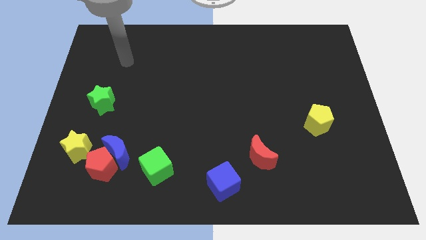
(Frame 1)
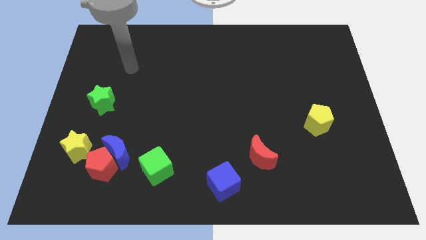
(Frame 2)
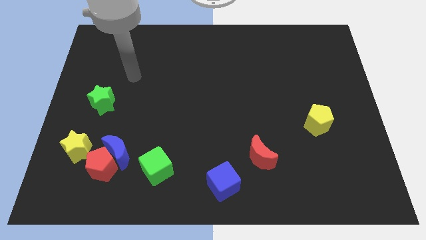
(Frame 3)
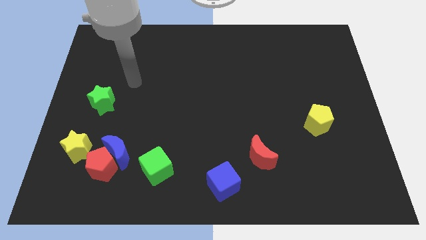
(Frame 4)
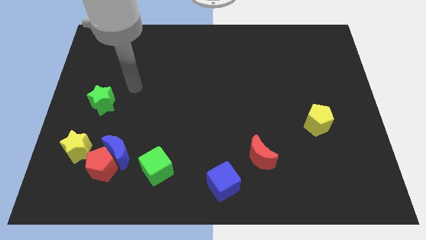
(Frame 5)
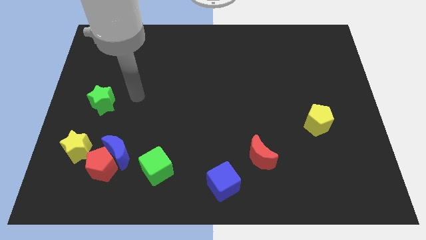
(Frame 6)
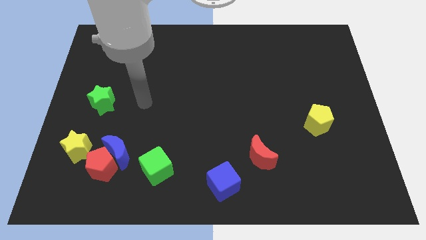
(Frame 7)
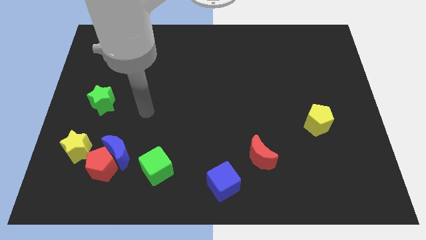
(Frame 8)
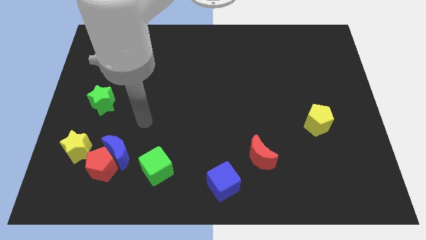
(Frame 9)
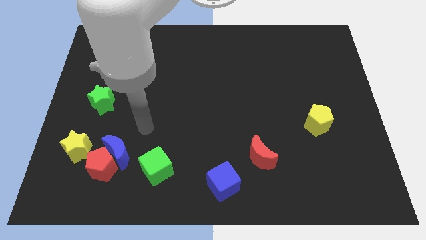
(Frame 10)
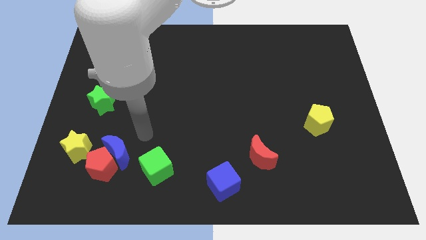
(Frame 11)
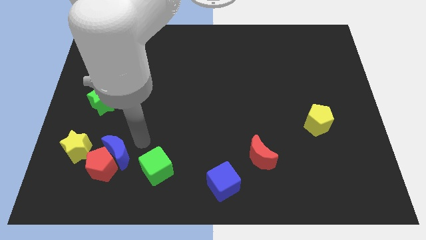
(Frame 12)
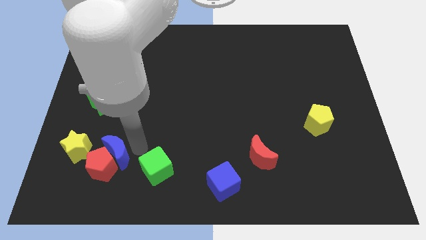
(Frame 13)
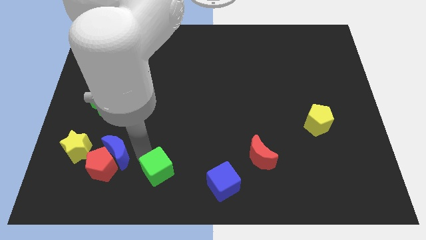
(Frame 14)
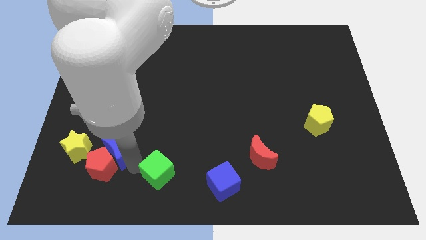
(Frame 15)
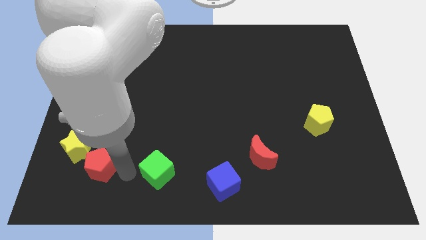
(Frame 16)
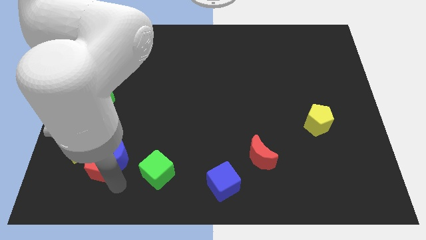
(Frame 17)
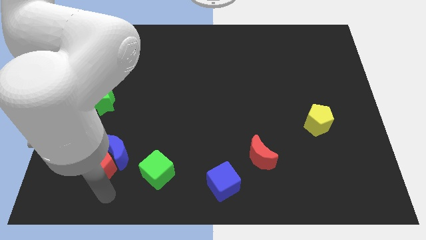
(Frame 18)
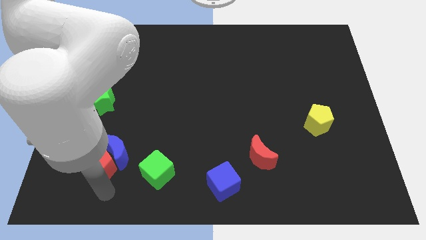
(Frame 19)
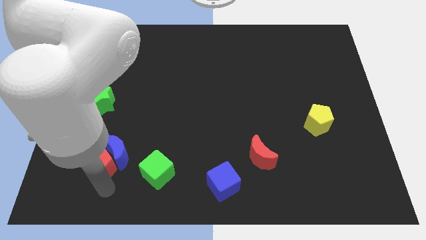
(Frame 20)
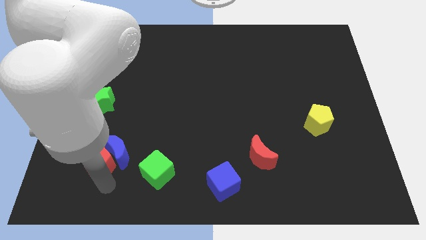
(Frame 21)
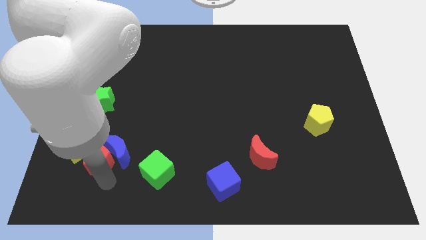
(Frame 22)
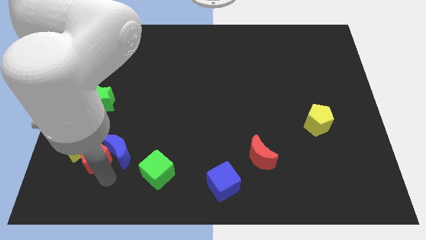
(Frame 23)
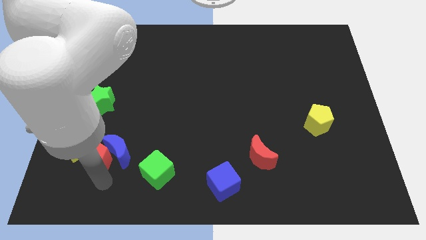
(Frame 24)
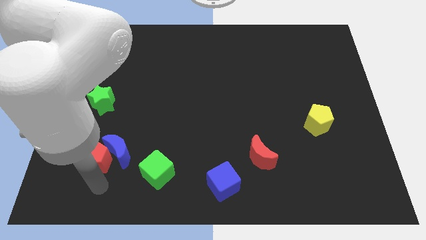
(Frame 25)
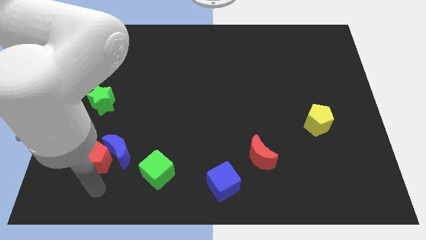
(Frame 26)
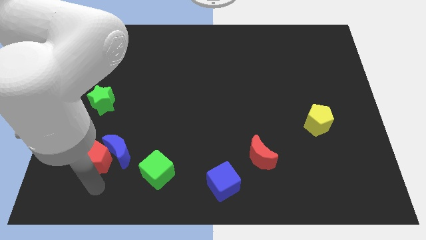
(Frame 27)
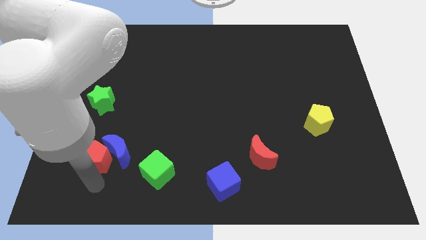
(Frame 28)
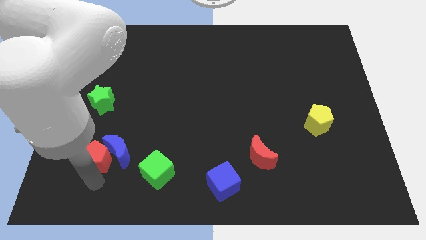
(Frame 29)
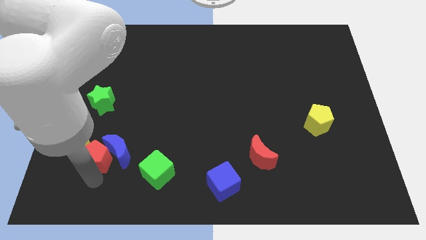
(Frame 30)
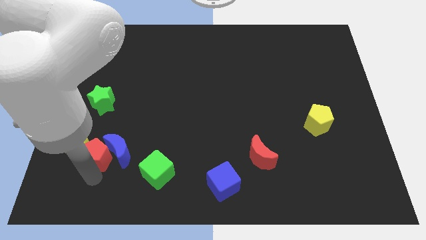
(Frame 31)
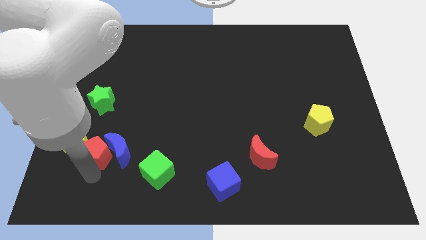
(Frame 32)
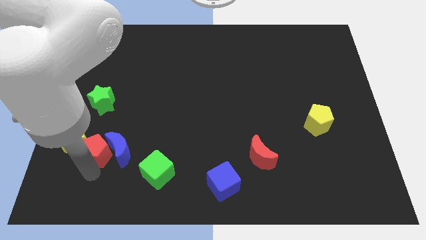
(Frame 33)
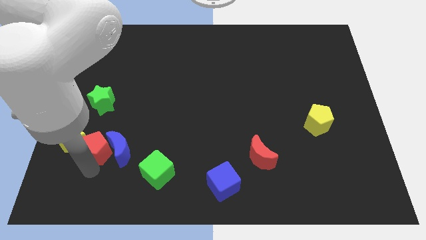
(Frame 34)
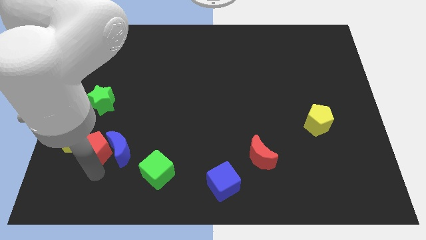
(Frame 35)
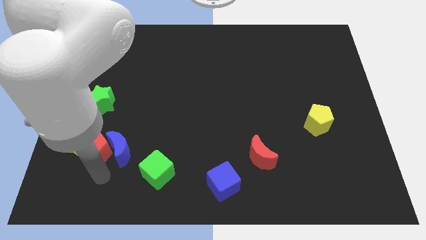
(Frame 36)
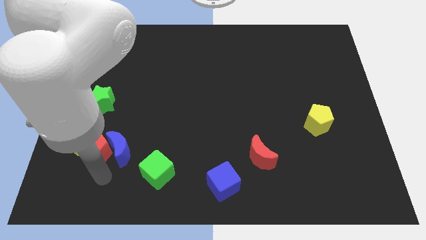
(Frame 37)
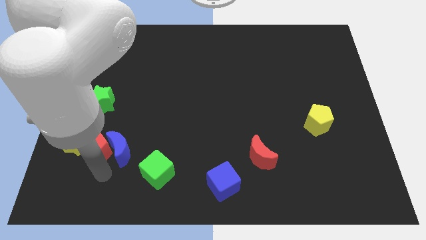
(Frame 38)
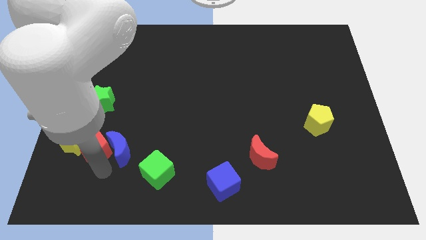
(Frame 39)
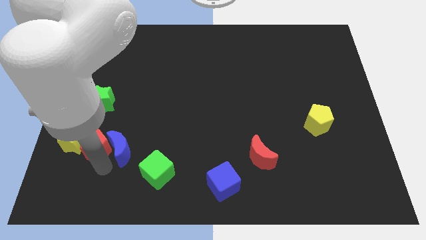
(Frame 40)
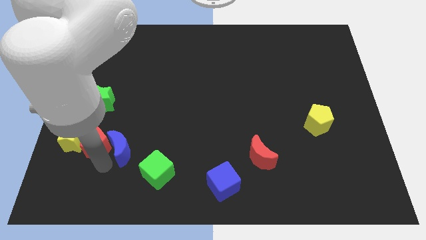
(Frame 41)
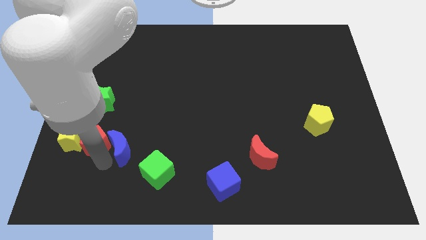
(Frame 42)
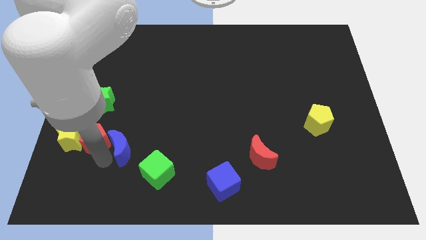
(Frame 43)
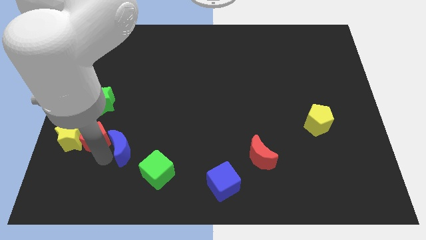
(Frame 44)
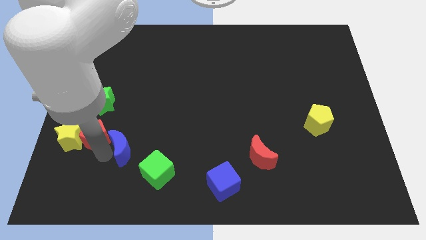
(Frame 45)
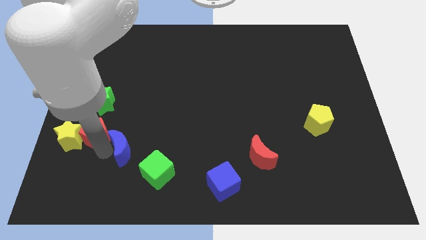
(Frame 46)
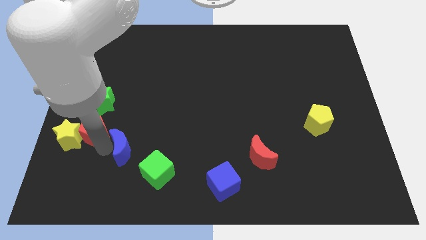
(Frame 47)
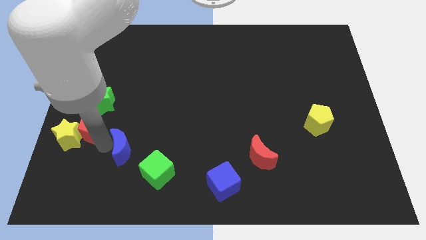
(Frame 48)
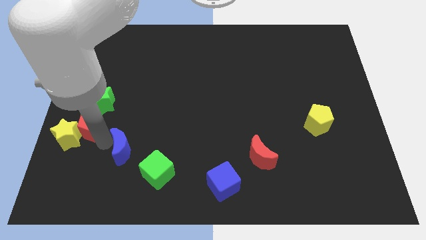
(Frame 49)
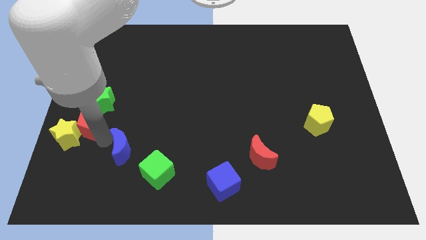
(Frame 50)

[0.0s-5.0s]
slide the red pentagon to the center left

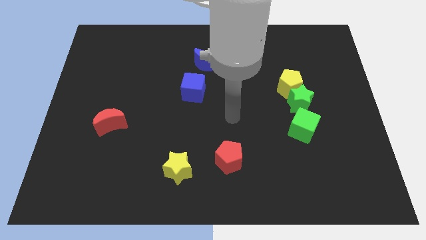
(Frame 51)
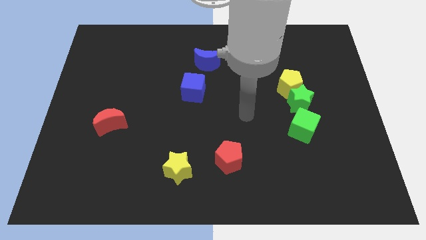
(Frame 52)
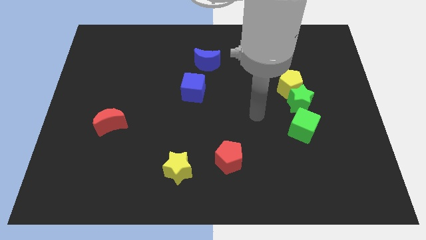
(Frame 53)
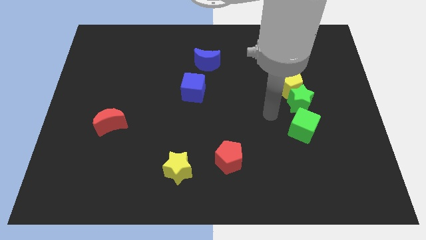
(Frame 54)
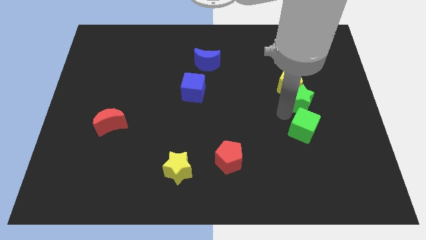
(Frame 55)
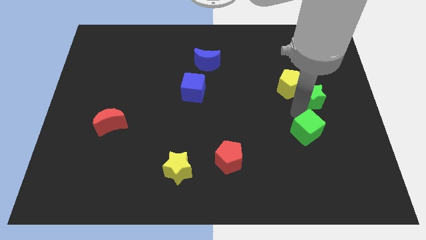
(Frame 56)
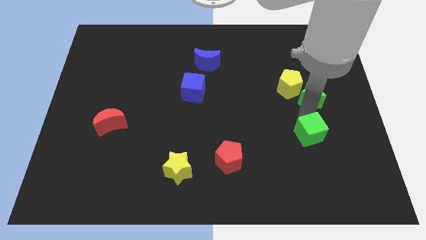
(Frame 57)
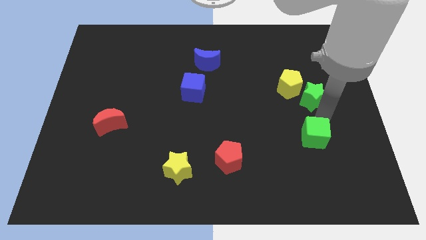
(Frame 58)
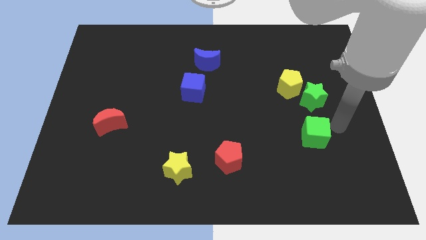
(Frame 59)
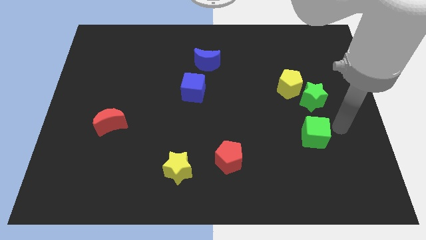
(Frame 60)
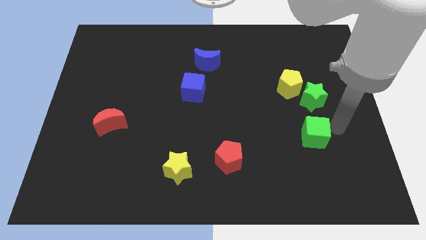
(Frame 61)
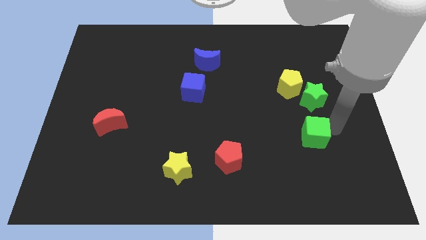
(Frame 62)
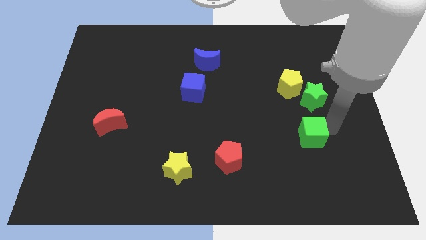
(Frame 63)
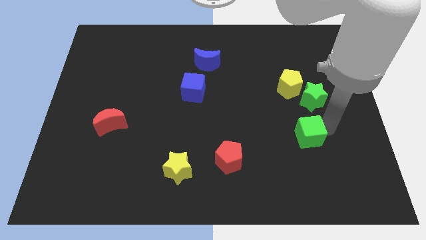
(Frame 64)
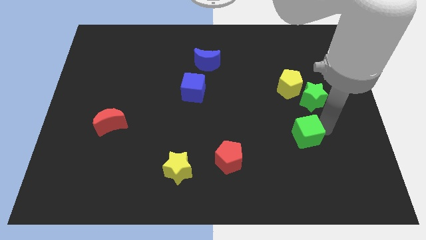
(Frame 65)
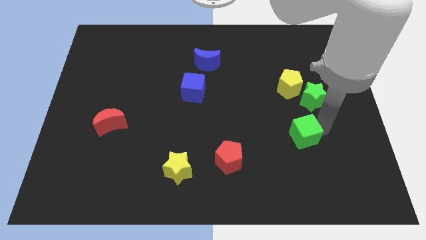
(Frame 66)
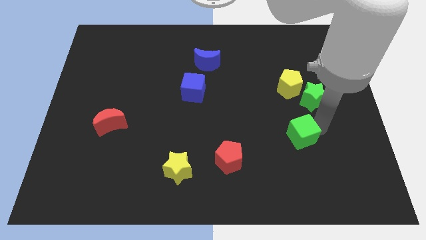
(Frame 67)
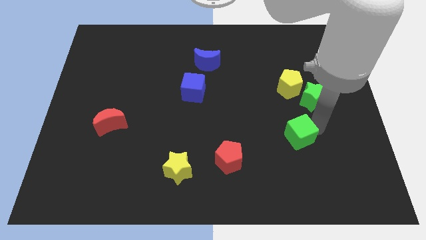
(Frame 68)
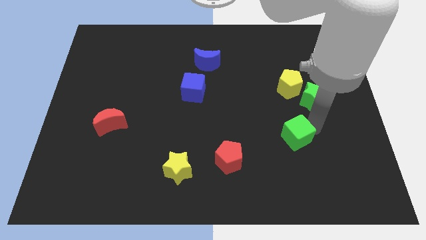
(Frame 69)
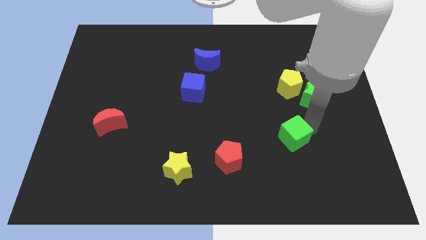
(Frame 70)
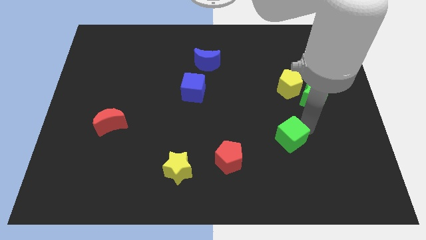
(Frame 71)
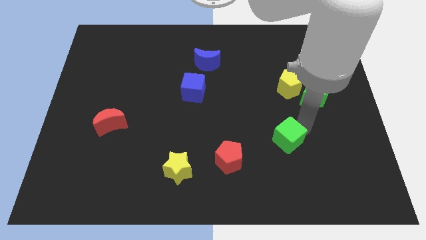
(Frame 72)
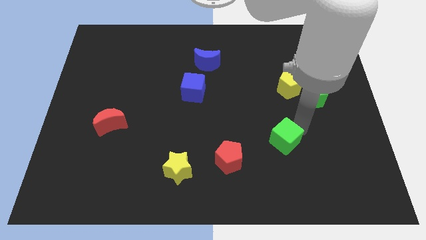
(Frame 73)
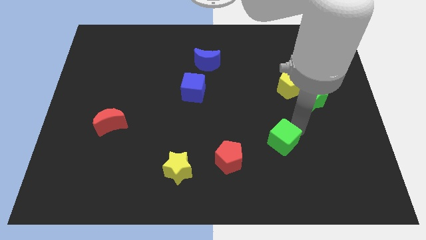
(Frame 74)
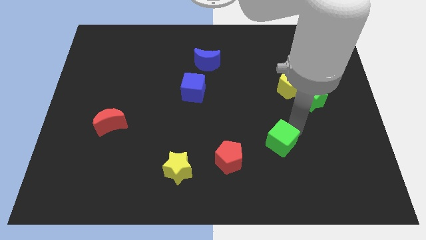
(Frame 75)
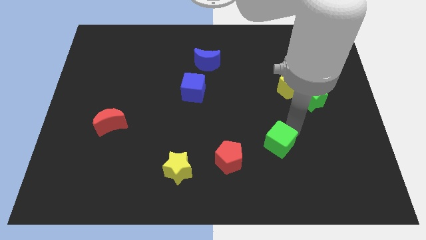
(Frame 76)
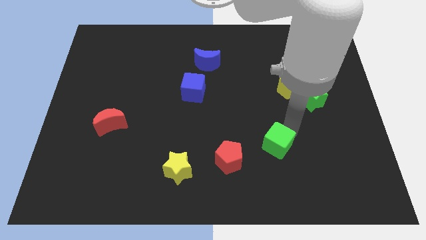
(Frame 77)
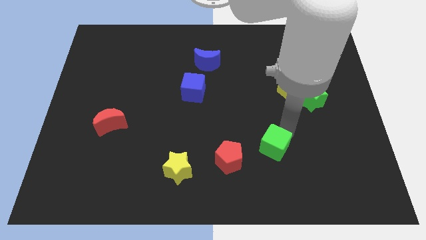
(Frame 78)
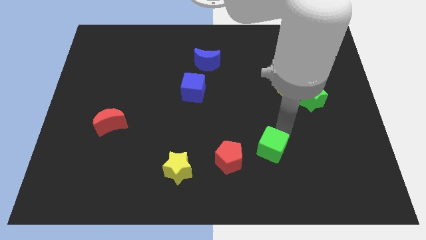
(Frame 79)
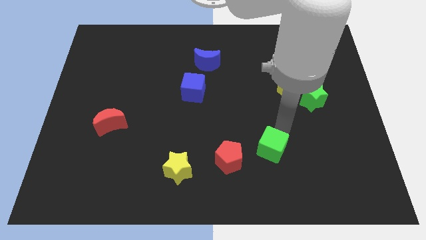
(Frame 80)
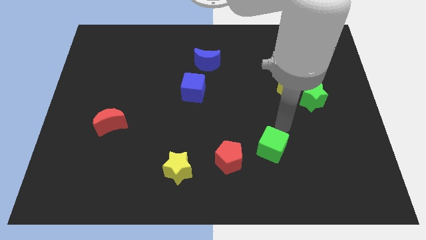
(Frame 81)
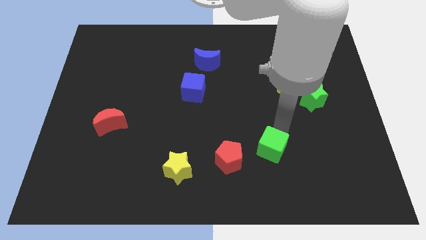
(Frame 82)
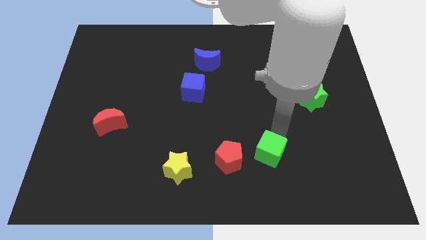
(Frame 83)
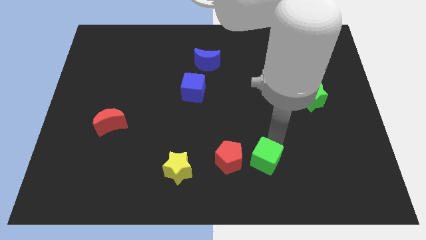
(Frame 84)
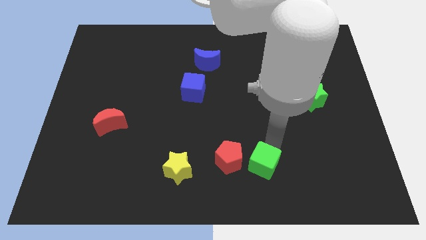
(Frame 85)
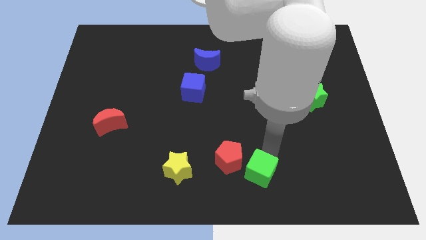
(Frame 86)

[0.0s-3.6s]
push the green cube to the bottom side
